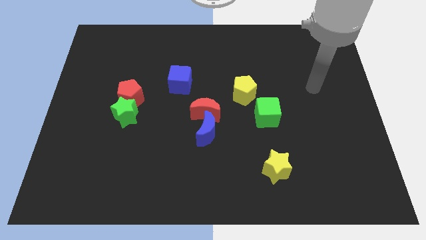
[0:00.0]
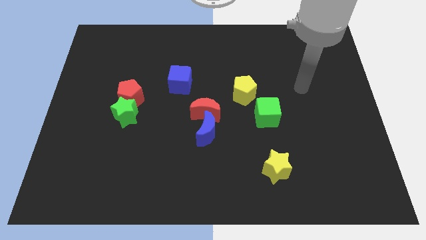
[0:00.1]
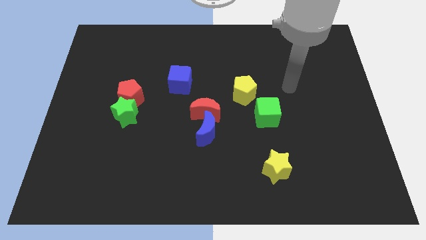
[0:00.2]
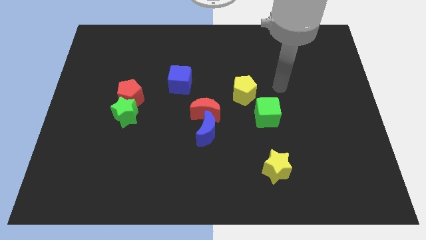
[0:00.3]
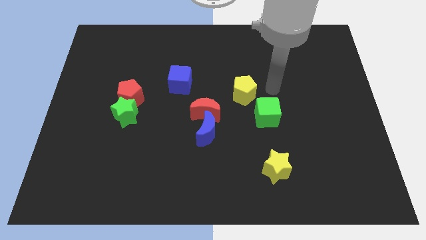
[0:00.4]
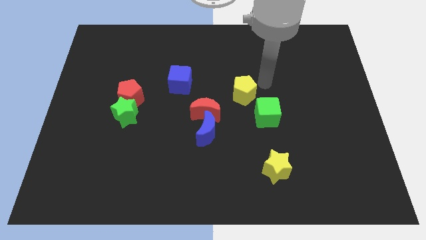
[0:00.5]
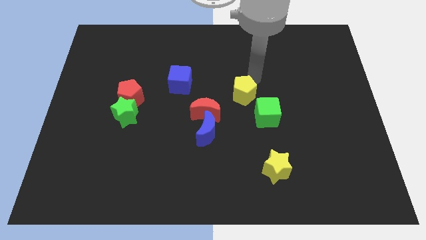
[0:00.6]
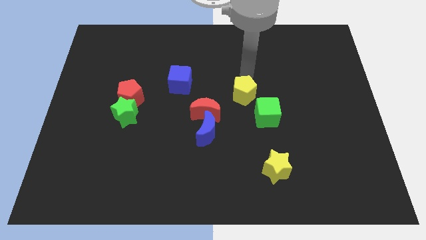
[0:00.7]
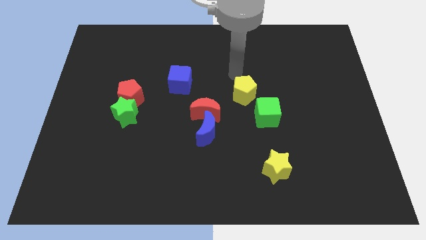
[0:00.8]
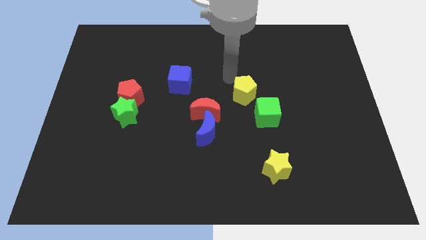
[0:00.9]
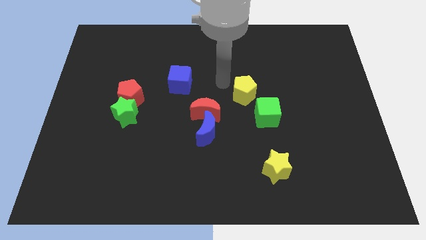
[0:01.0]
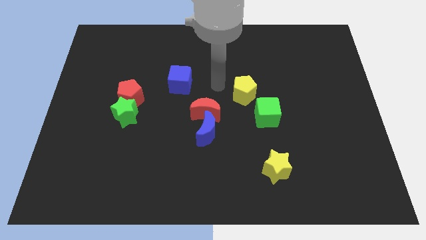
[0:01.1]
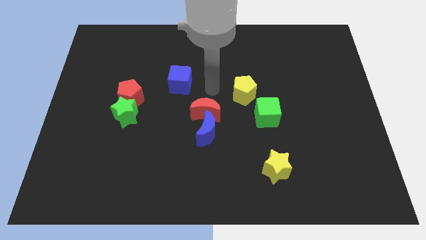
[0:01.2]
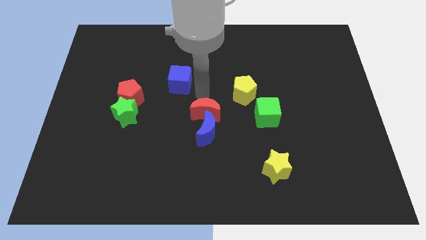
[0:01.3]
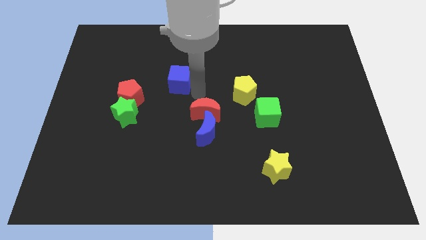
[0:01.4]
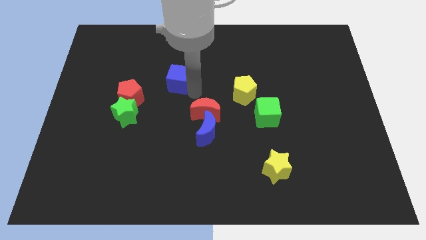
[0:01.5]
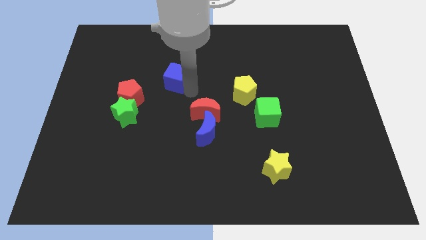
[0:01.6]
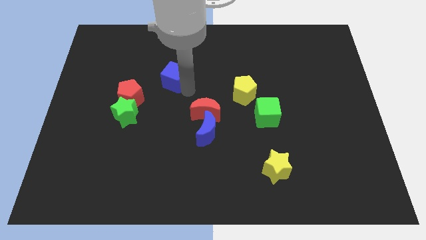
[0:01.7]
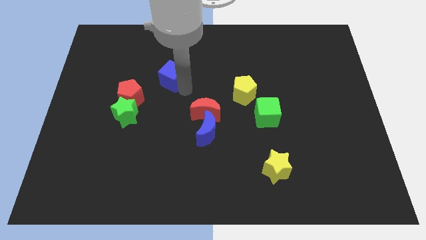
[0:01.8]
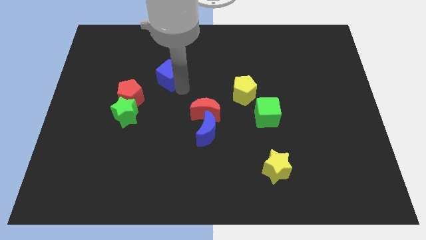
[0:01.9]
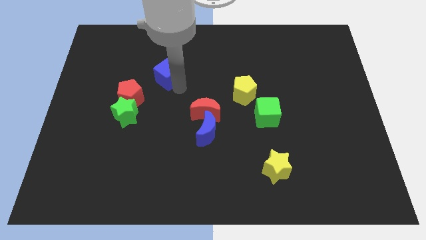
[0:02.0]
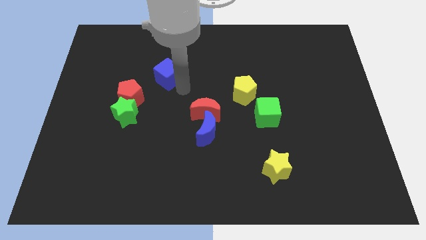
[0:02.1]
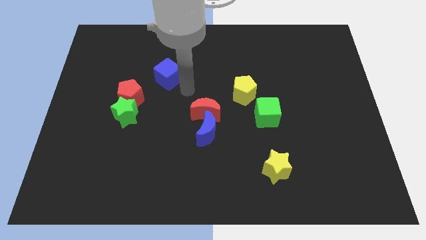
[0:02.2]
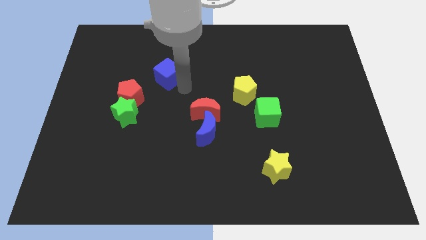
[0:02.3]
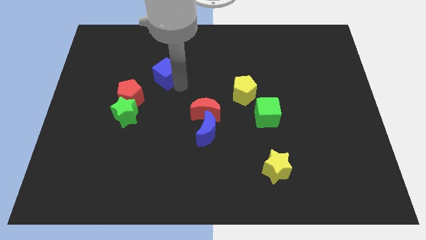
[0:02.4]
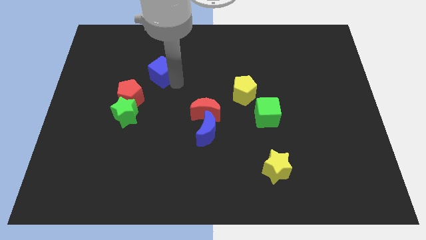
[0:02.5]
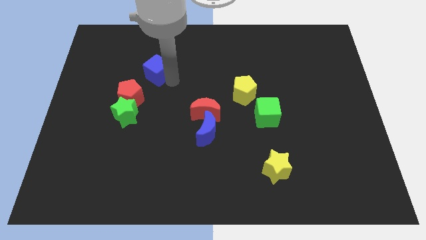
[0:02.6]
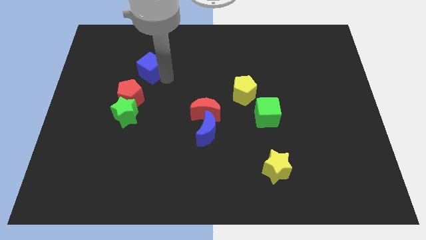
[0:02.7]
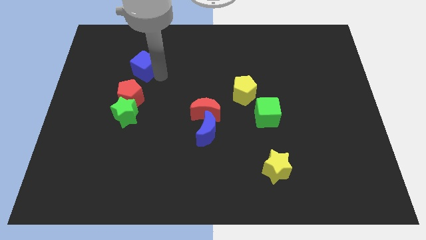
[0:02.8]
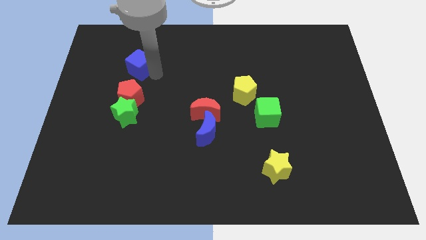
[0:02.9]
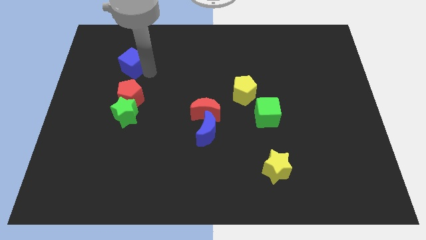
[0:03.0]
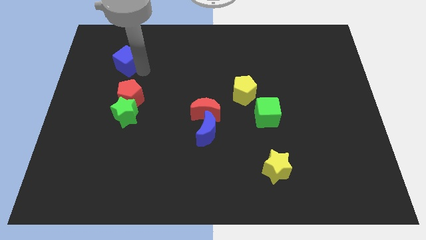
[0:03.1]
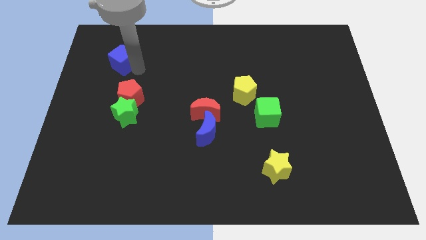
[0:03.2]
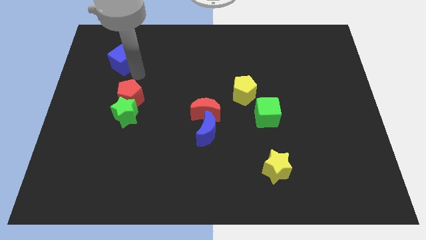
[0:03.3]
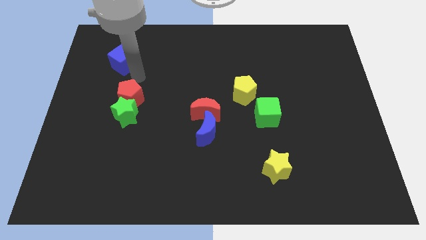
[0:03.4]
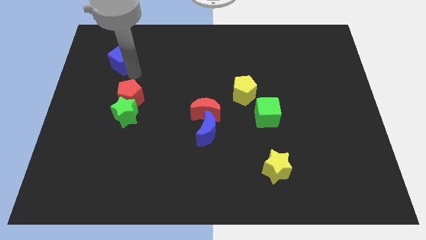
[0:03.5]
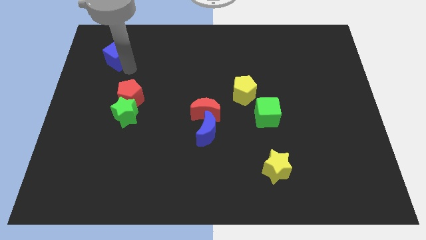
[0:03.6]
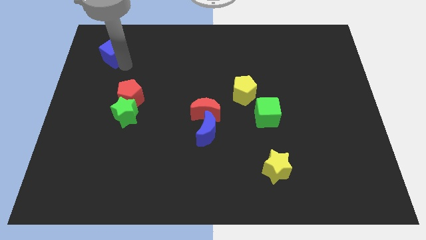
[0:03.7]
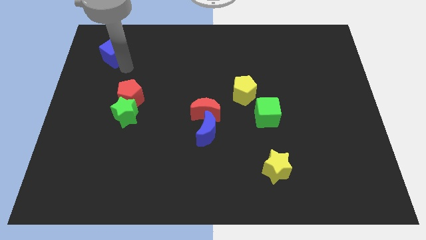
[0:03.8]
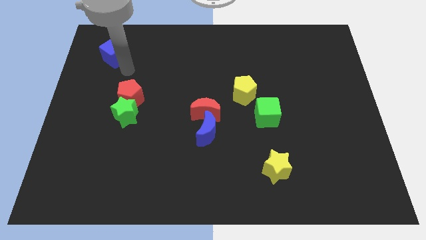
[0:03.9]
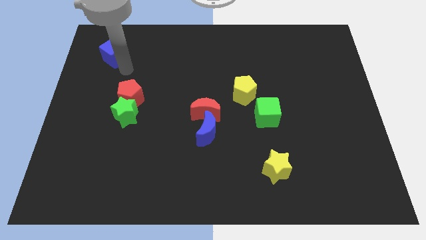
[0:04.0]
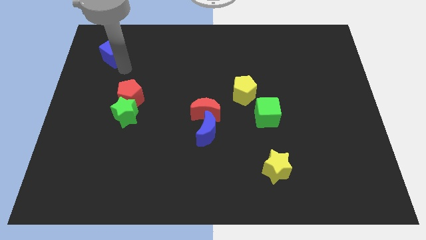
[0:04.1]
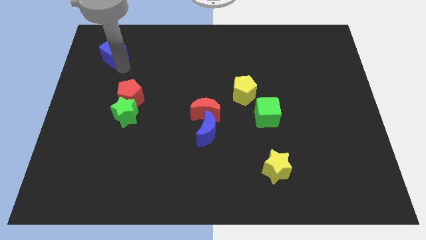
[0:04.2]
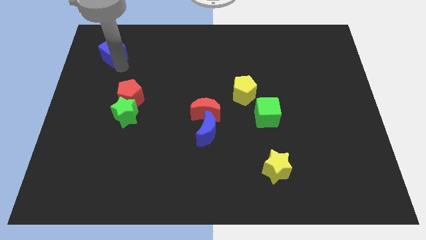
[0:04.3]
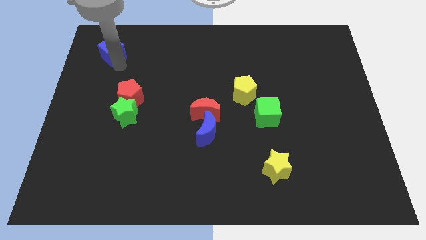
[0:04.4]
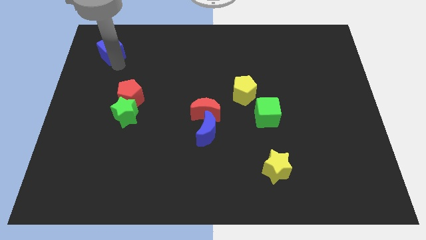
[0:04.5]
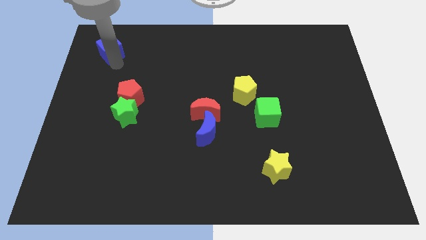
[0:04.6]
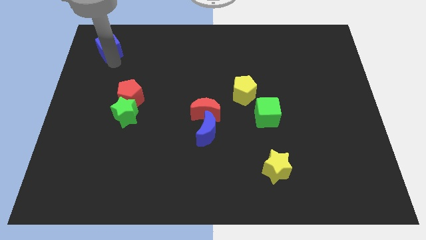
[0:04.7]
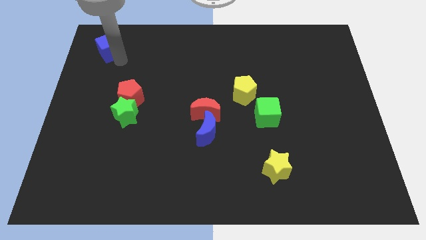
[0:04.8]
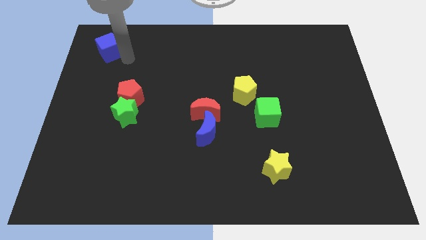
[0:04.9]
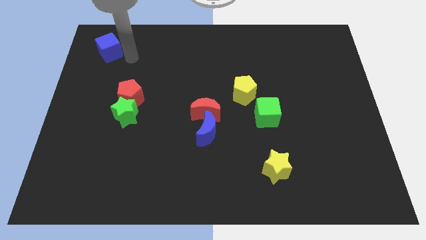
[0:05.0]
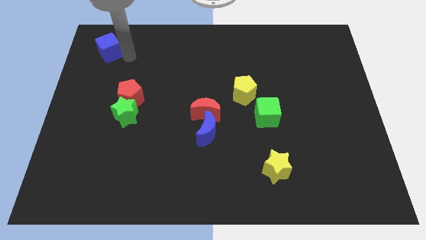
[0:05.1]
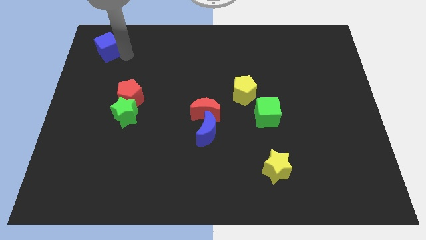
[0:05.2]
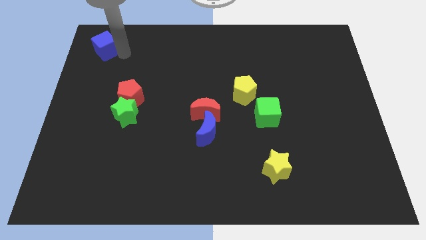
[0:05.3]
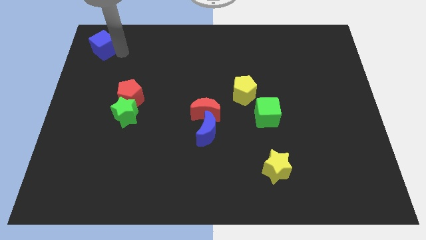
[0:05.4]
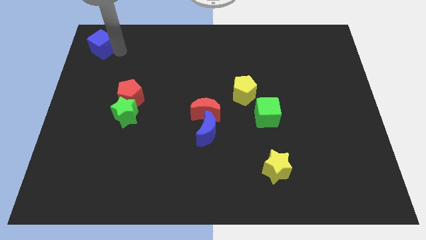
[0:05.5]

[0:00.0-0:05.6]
push the blue cube to the top left
